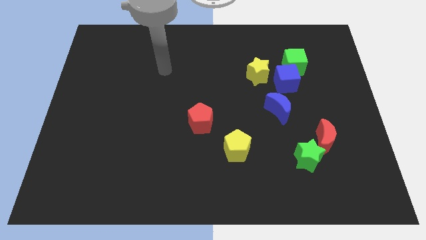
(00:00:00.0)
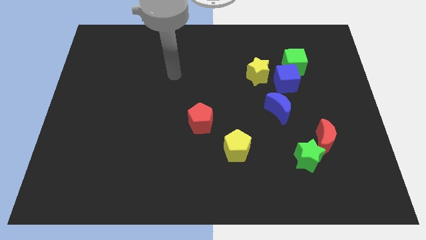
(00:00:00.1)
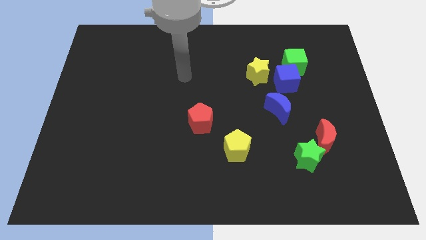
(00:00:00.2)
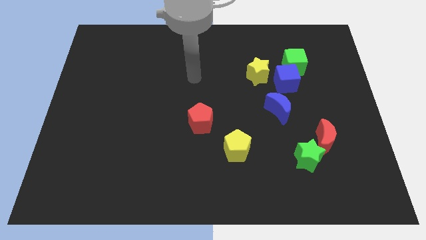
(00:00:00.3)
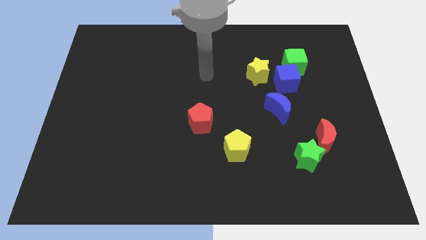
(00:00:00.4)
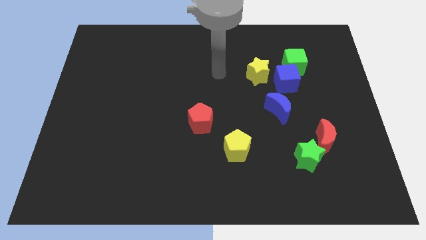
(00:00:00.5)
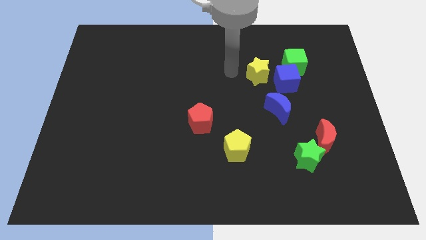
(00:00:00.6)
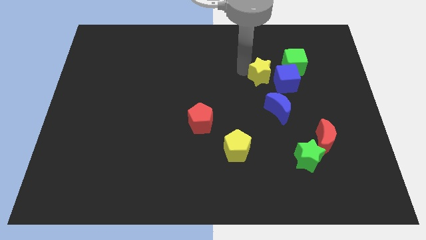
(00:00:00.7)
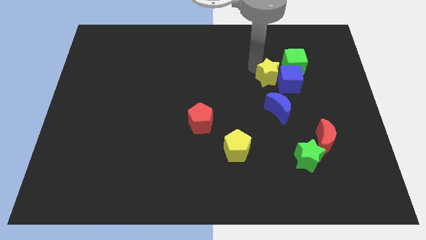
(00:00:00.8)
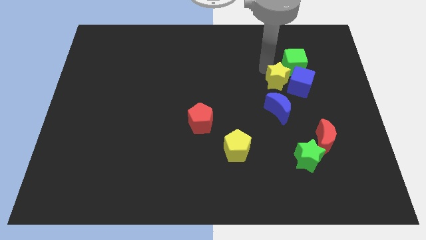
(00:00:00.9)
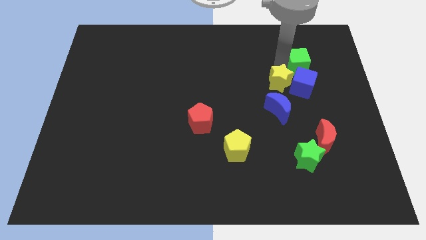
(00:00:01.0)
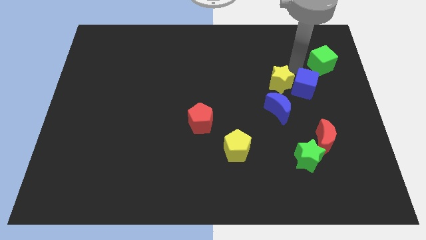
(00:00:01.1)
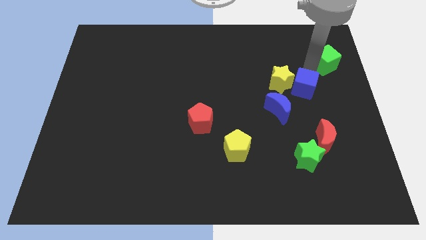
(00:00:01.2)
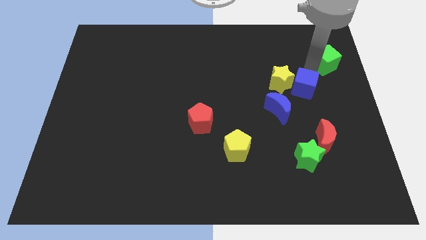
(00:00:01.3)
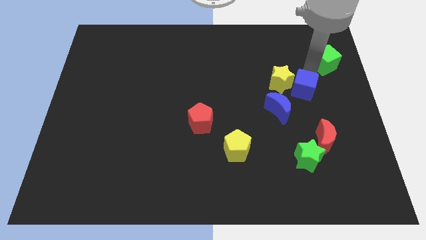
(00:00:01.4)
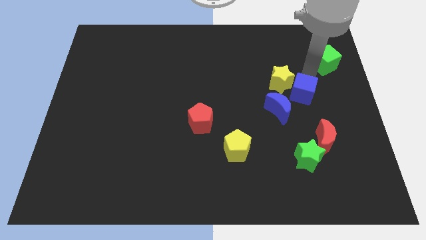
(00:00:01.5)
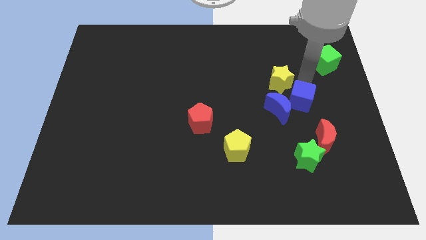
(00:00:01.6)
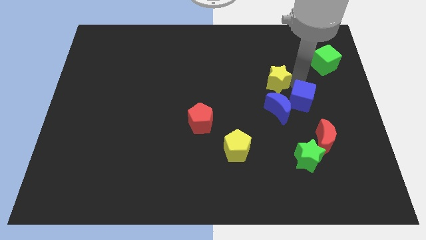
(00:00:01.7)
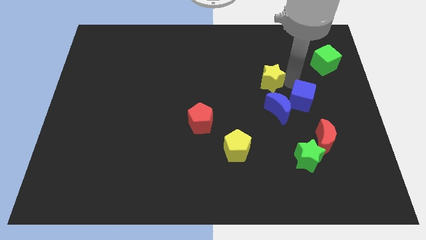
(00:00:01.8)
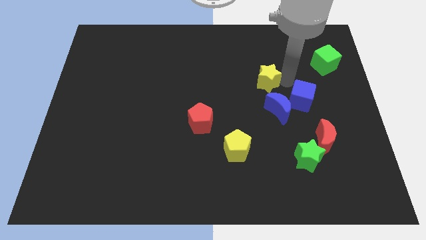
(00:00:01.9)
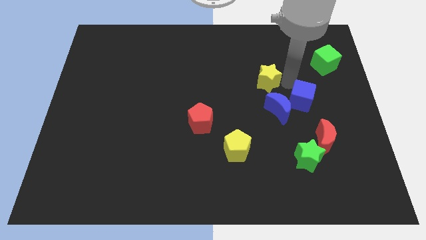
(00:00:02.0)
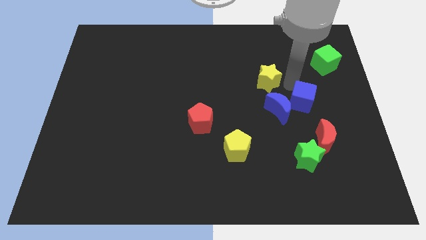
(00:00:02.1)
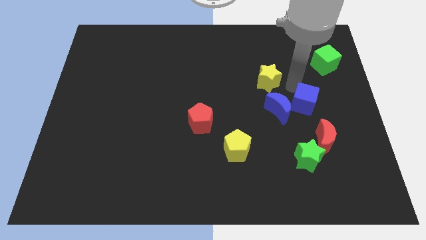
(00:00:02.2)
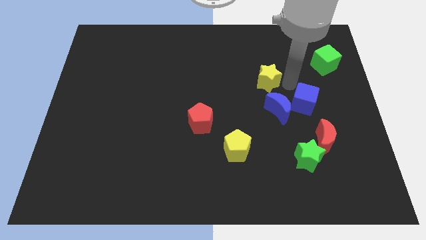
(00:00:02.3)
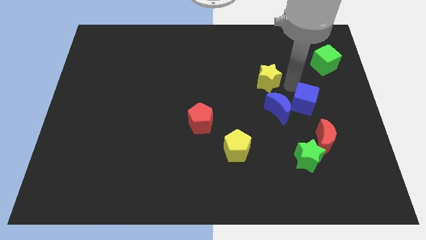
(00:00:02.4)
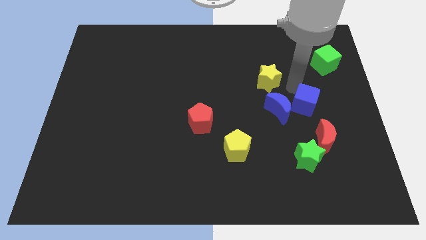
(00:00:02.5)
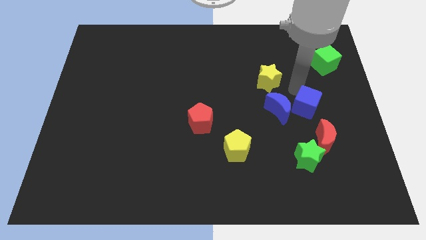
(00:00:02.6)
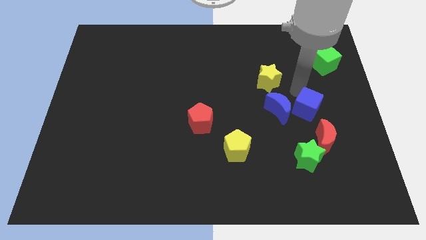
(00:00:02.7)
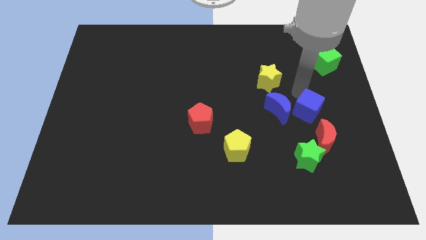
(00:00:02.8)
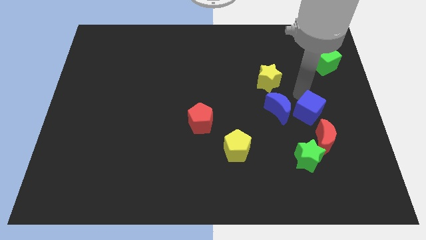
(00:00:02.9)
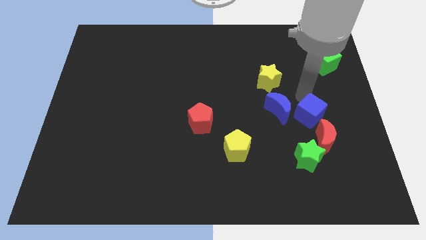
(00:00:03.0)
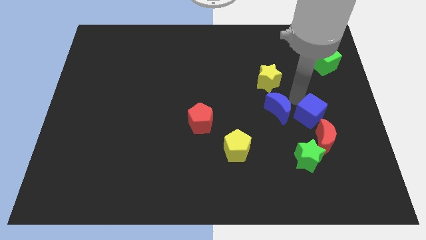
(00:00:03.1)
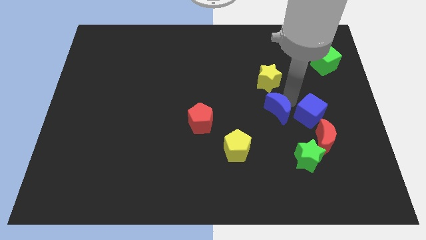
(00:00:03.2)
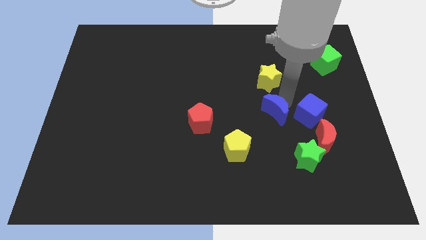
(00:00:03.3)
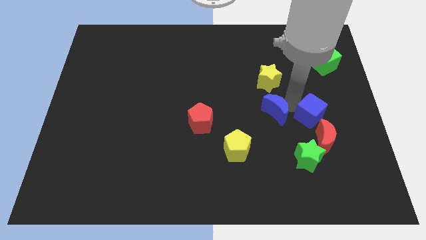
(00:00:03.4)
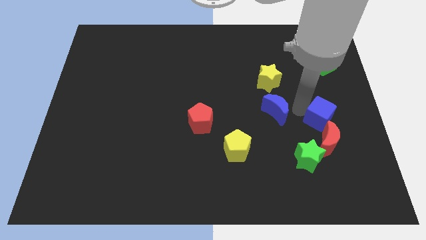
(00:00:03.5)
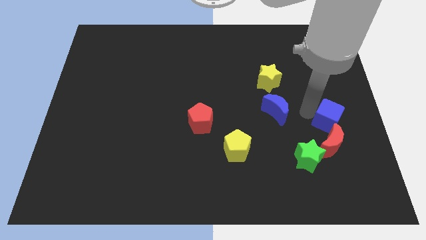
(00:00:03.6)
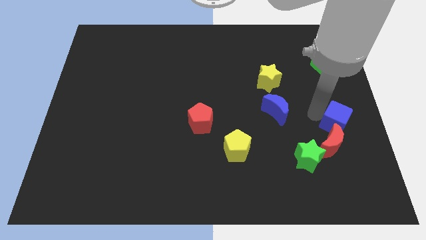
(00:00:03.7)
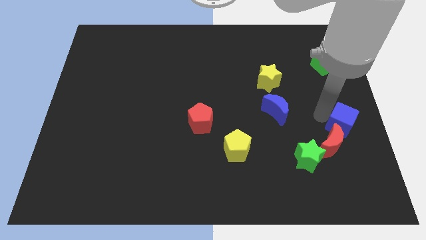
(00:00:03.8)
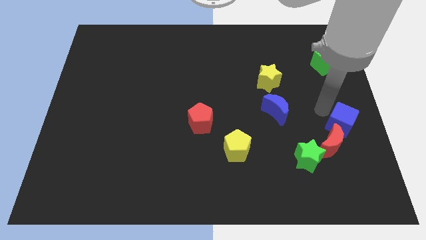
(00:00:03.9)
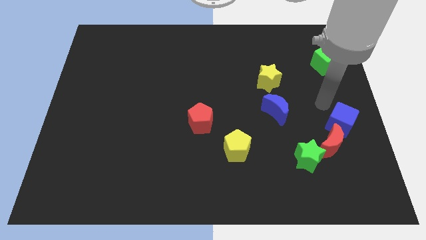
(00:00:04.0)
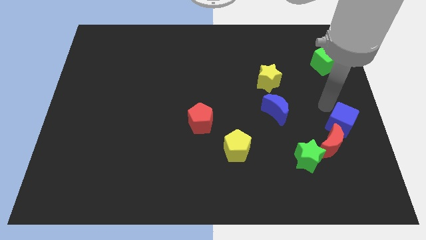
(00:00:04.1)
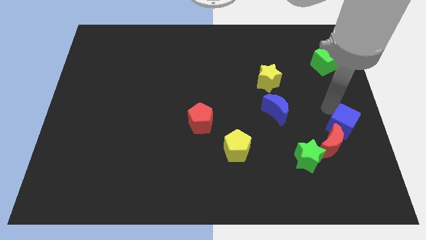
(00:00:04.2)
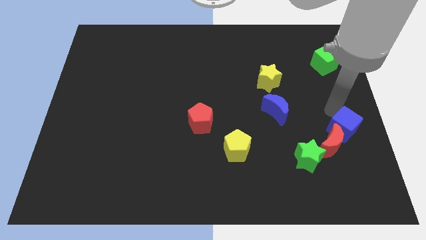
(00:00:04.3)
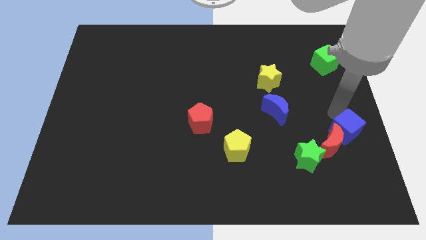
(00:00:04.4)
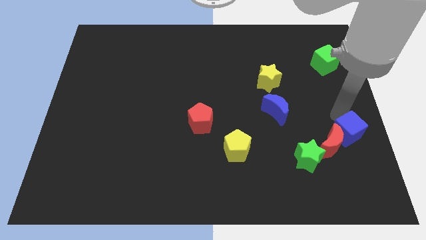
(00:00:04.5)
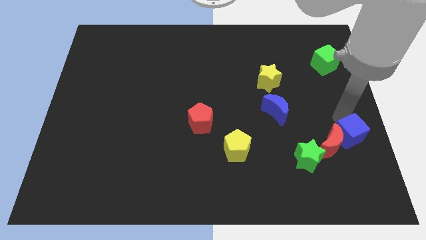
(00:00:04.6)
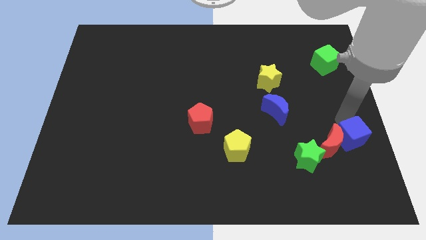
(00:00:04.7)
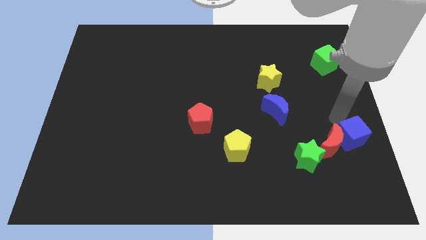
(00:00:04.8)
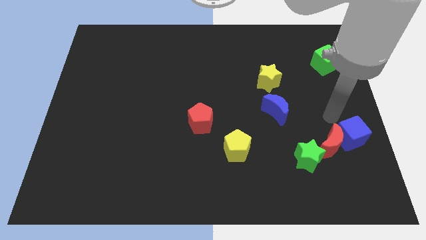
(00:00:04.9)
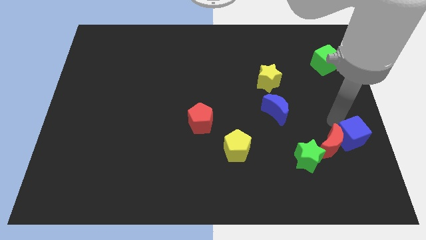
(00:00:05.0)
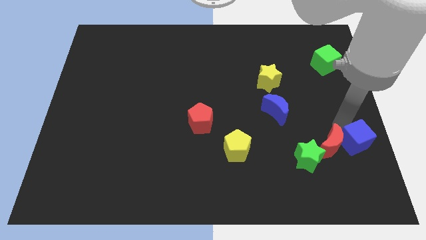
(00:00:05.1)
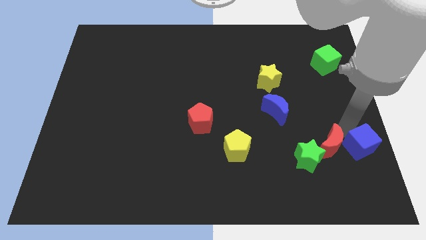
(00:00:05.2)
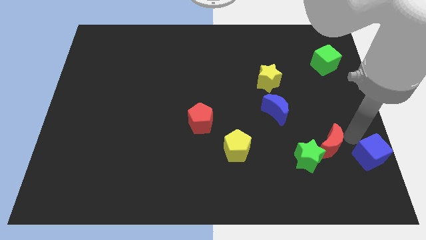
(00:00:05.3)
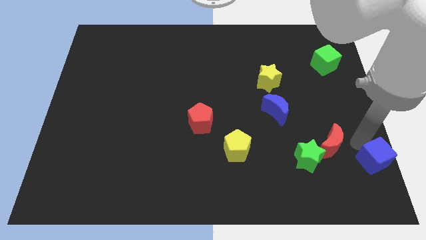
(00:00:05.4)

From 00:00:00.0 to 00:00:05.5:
push the blue cube to the lower right corner

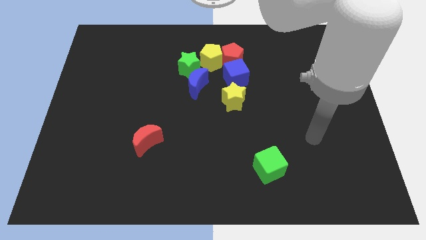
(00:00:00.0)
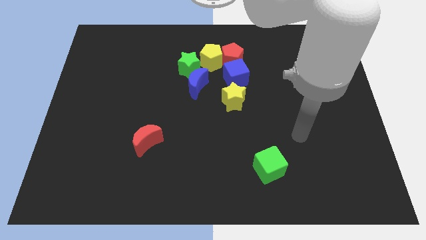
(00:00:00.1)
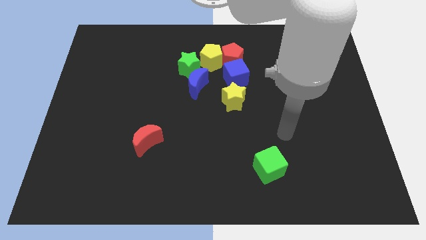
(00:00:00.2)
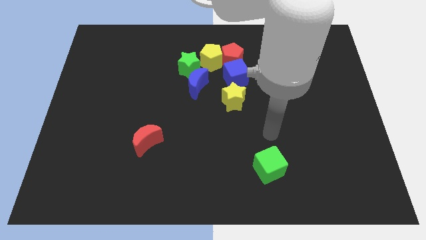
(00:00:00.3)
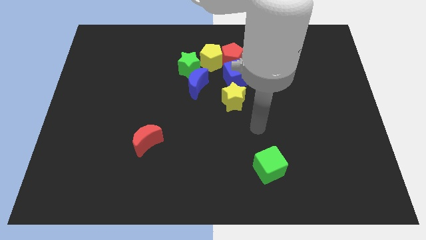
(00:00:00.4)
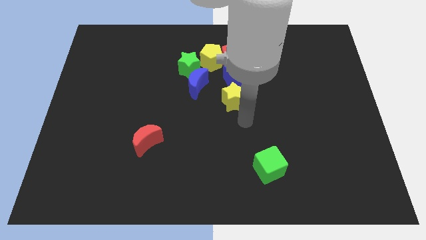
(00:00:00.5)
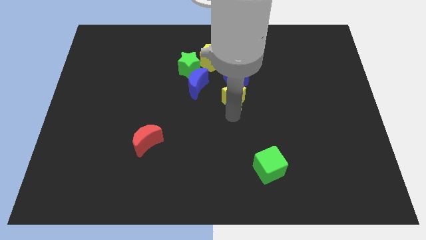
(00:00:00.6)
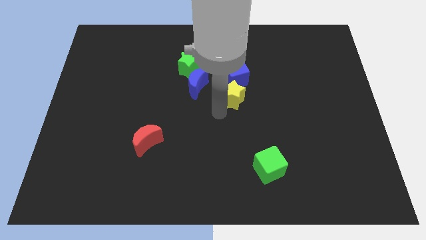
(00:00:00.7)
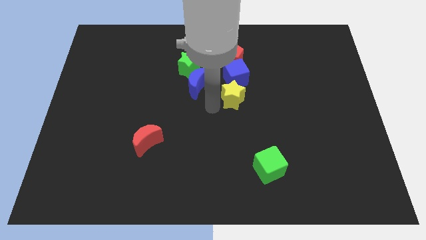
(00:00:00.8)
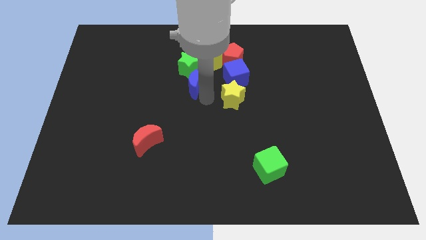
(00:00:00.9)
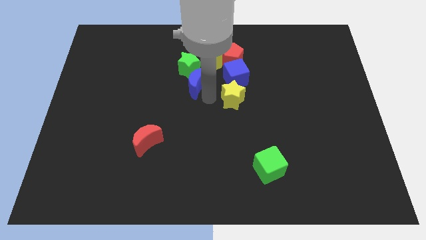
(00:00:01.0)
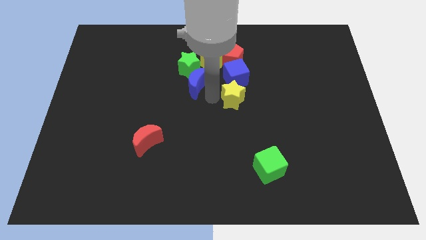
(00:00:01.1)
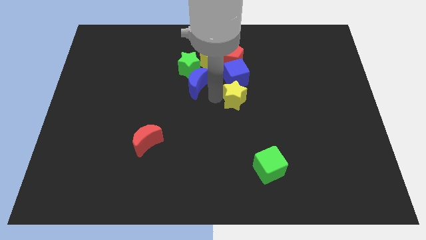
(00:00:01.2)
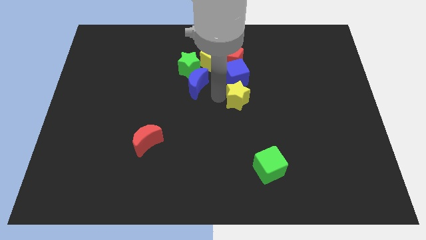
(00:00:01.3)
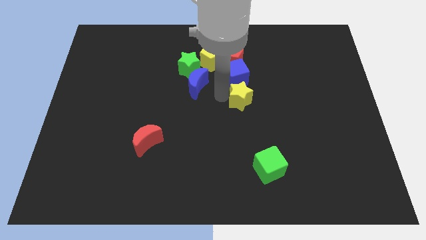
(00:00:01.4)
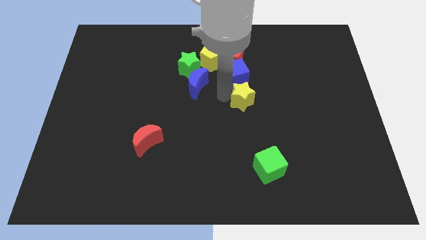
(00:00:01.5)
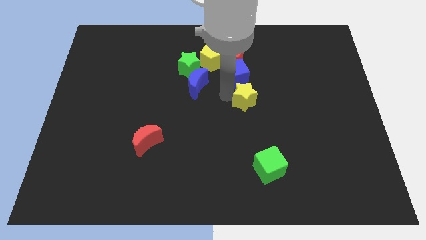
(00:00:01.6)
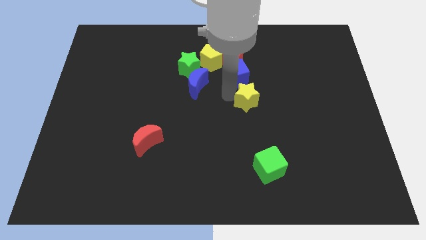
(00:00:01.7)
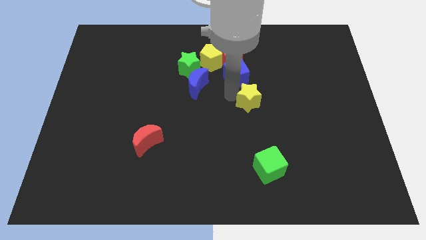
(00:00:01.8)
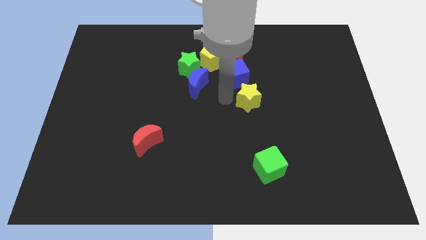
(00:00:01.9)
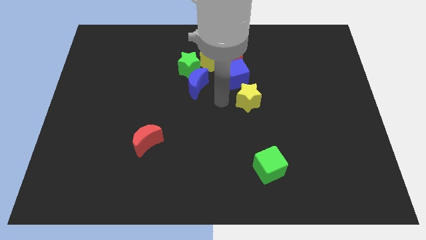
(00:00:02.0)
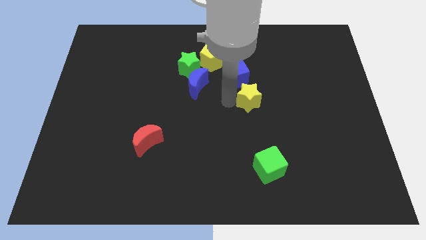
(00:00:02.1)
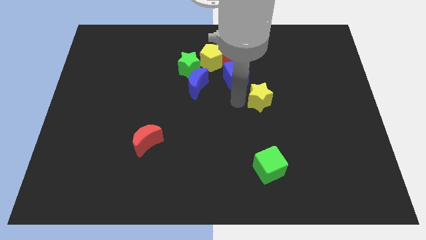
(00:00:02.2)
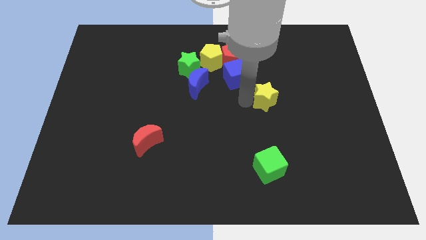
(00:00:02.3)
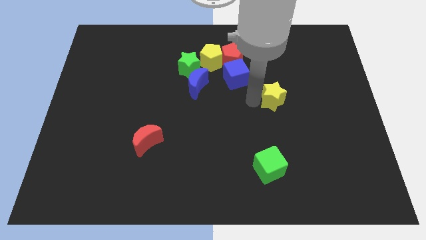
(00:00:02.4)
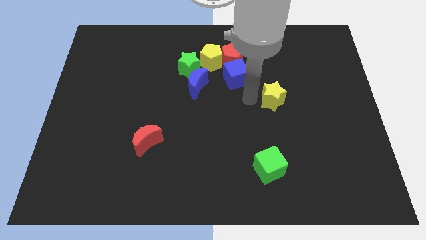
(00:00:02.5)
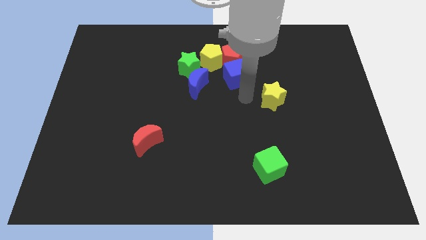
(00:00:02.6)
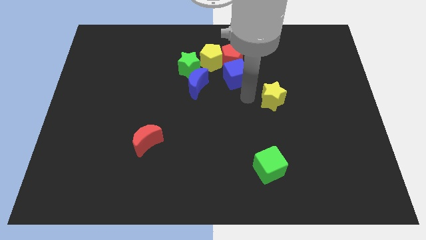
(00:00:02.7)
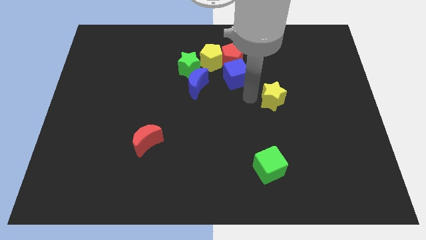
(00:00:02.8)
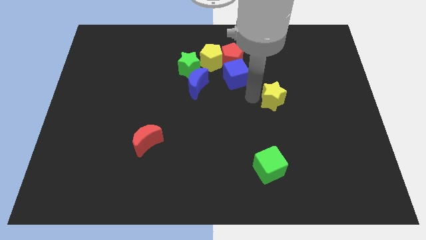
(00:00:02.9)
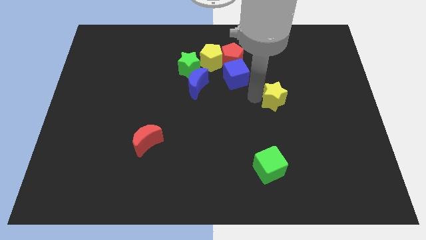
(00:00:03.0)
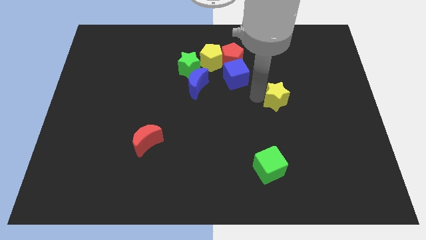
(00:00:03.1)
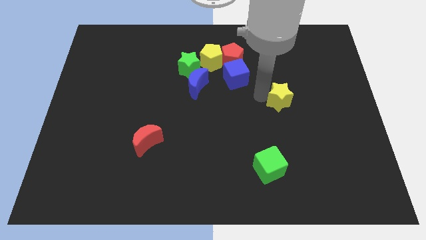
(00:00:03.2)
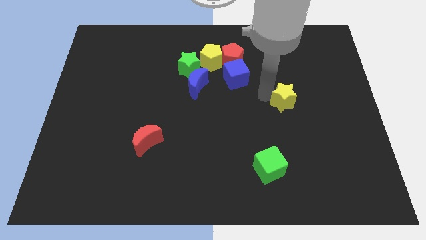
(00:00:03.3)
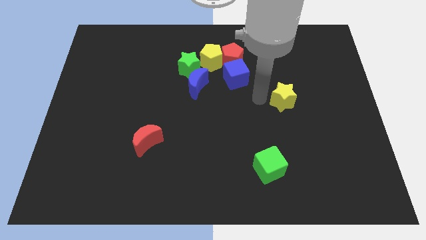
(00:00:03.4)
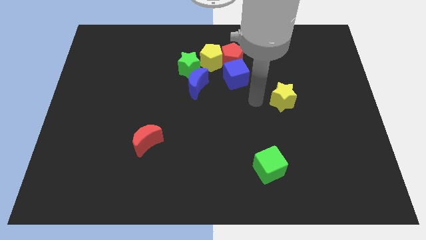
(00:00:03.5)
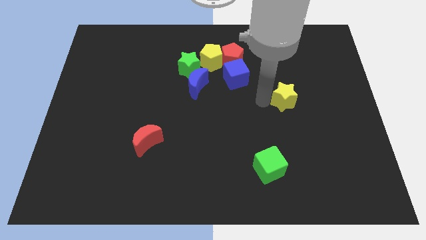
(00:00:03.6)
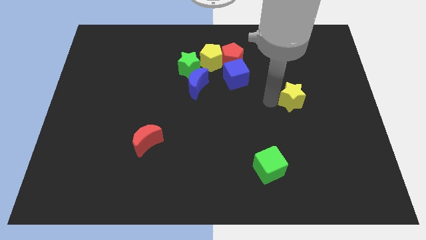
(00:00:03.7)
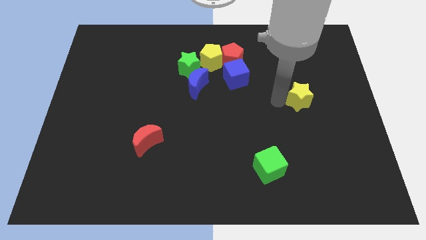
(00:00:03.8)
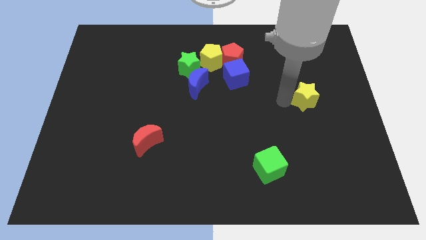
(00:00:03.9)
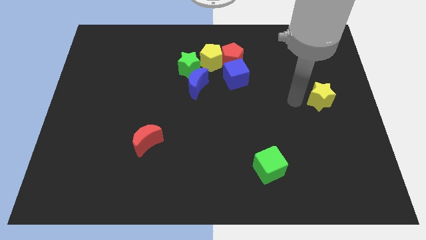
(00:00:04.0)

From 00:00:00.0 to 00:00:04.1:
push the yellow star to the right side
